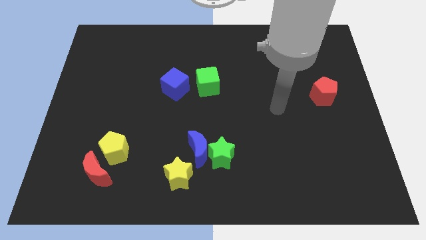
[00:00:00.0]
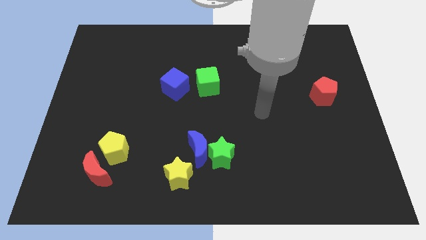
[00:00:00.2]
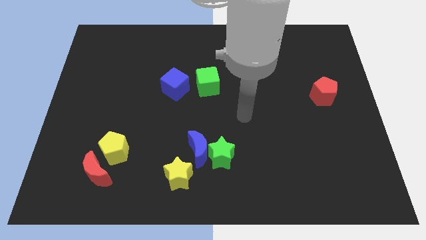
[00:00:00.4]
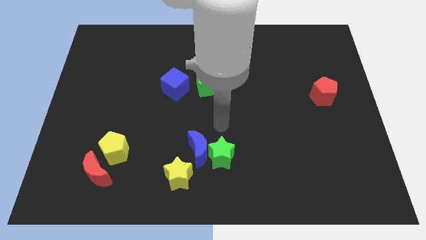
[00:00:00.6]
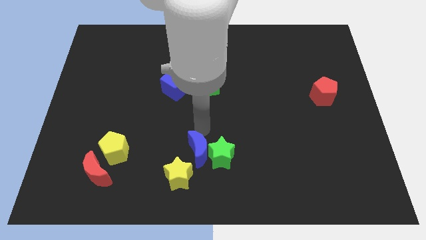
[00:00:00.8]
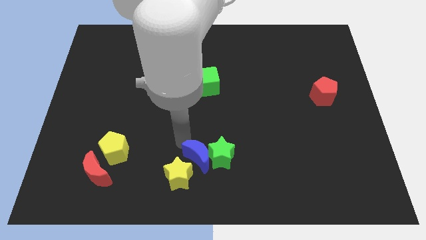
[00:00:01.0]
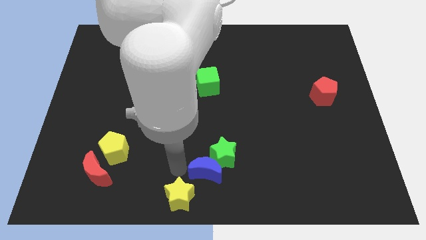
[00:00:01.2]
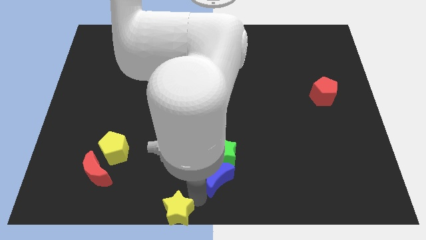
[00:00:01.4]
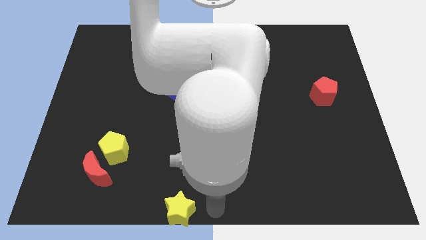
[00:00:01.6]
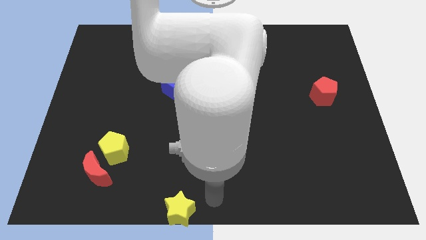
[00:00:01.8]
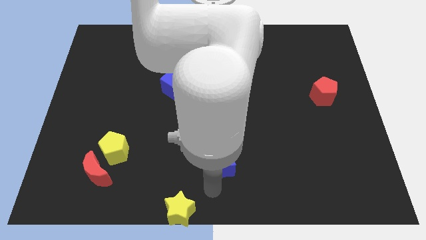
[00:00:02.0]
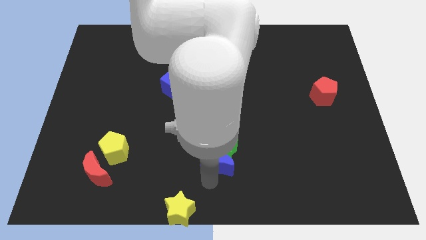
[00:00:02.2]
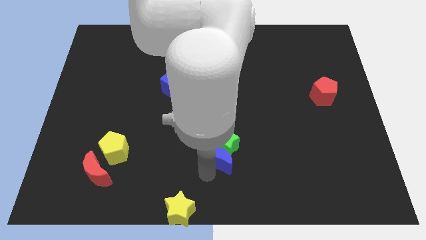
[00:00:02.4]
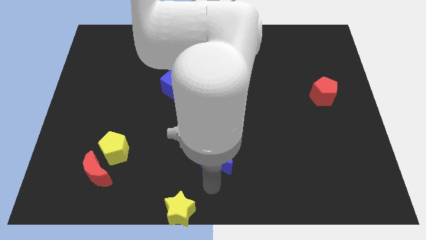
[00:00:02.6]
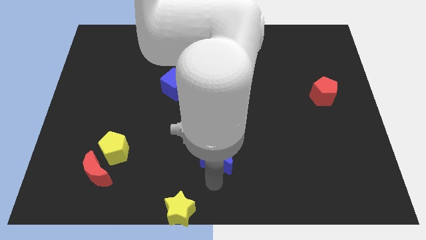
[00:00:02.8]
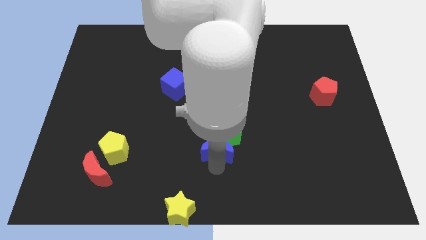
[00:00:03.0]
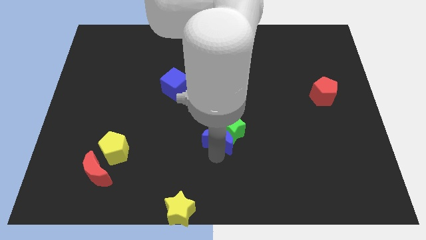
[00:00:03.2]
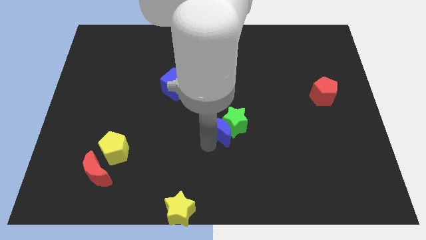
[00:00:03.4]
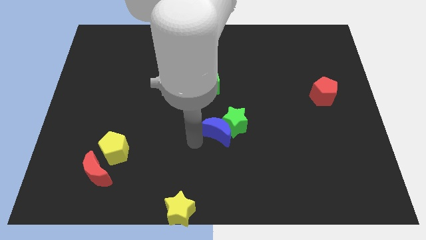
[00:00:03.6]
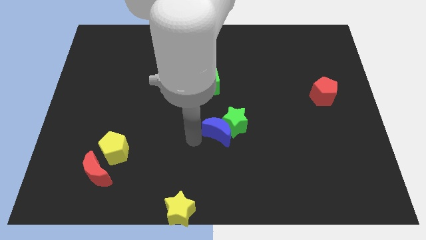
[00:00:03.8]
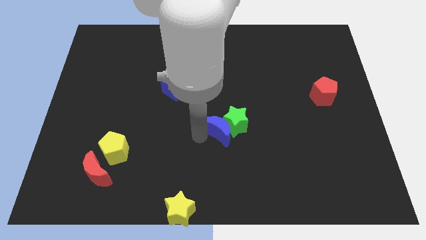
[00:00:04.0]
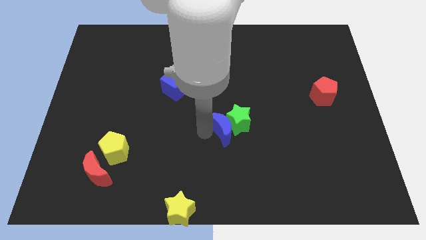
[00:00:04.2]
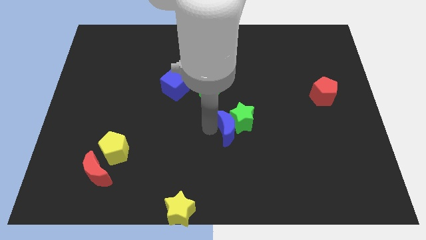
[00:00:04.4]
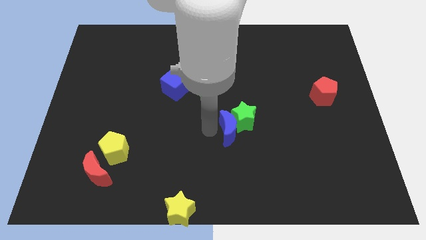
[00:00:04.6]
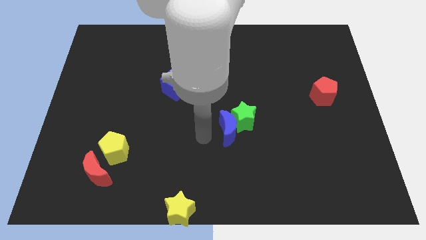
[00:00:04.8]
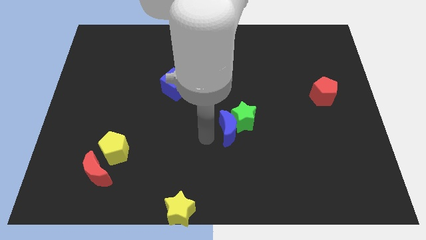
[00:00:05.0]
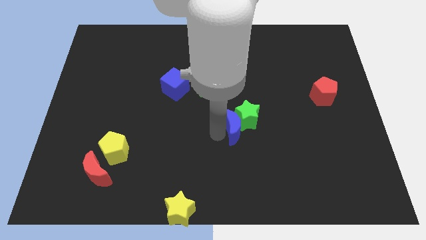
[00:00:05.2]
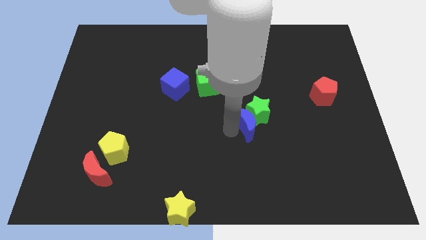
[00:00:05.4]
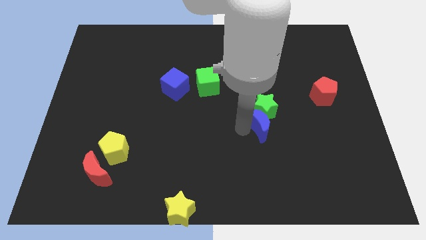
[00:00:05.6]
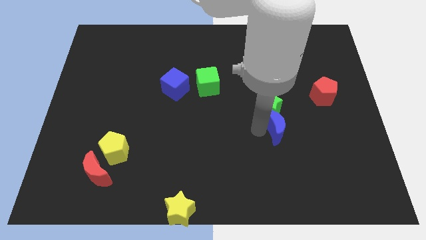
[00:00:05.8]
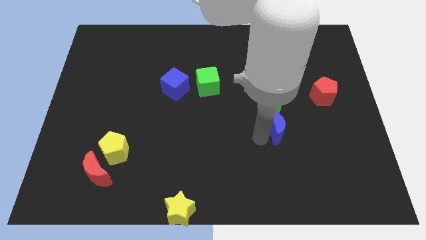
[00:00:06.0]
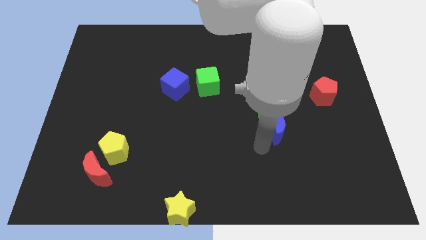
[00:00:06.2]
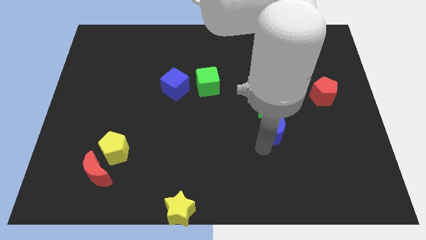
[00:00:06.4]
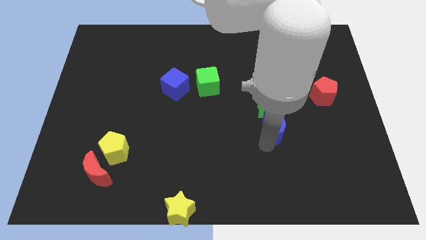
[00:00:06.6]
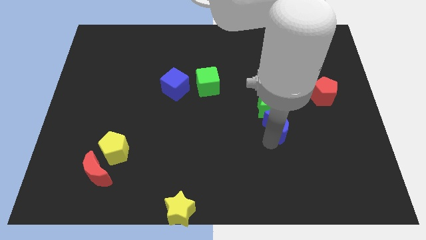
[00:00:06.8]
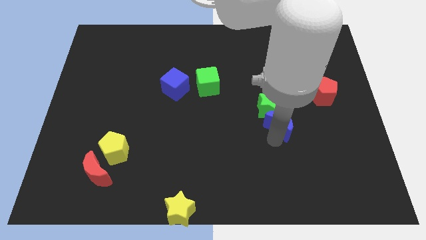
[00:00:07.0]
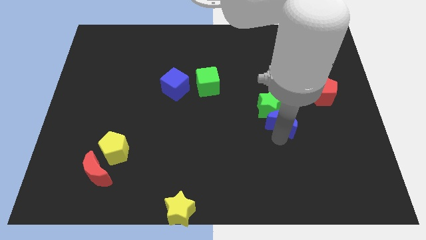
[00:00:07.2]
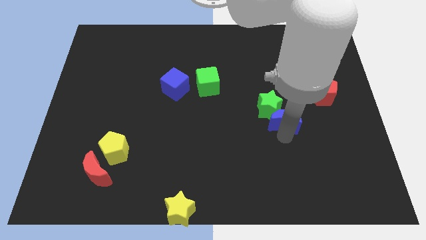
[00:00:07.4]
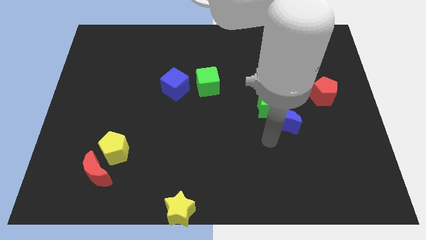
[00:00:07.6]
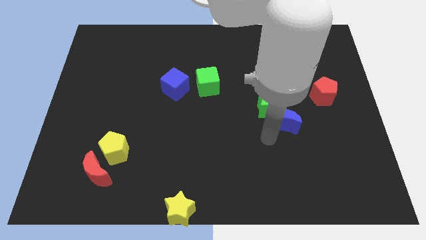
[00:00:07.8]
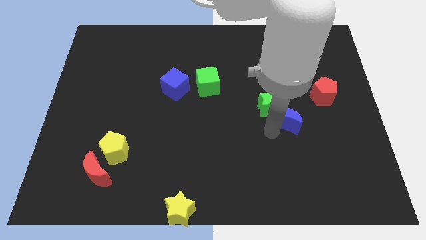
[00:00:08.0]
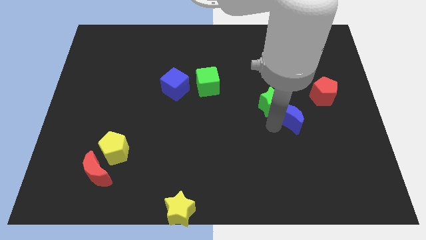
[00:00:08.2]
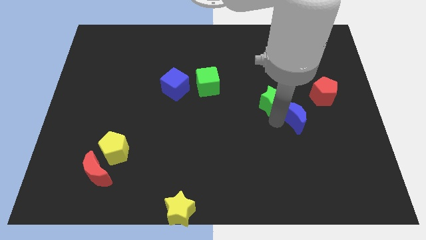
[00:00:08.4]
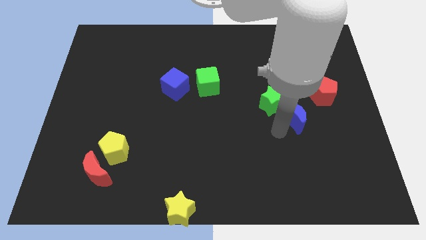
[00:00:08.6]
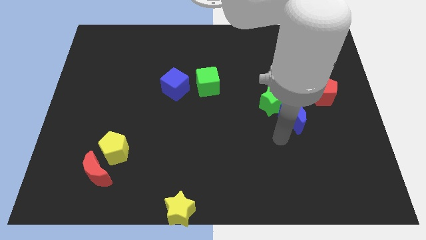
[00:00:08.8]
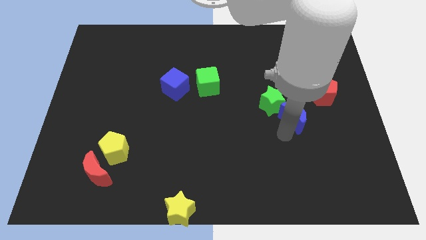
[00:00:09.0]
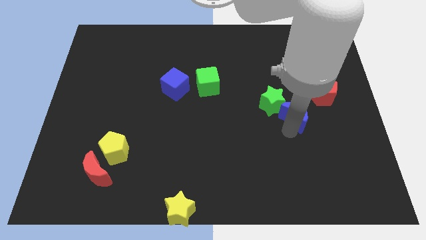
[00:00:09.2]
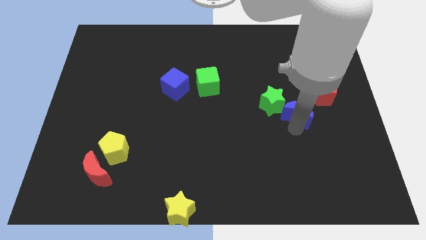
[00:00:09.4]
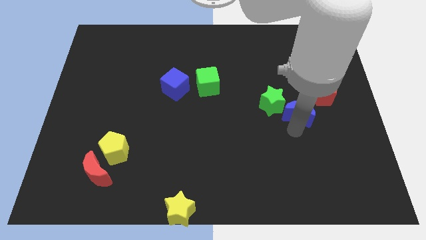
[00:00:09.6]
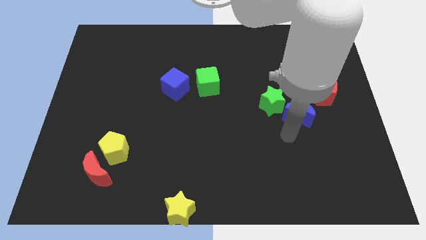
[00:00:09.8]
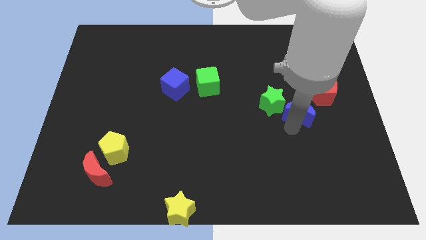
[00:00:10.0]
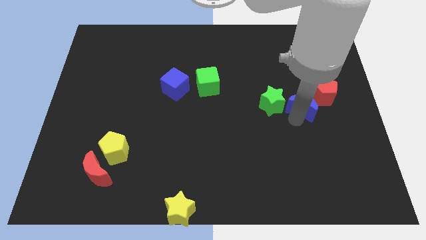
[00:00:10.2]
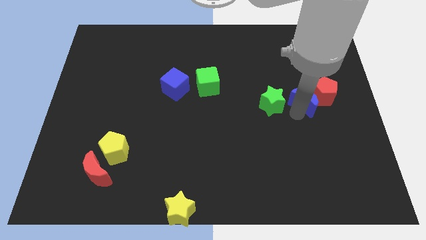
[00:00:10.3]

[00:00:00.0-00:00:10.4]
push the blue moon close to the red pentagon

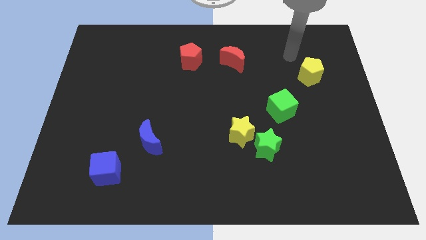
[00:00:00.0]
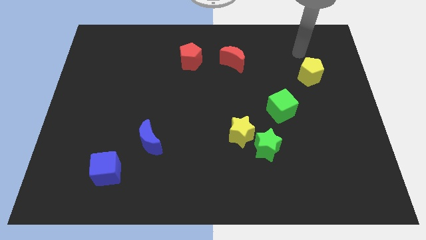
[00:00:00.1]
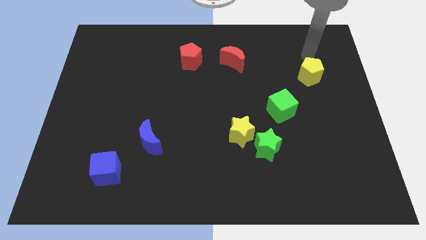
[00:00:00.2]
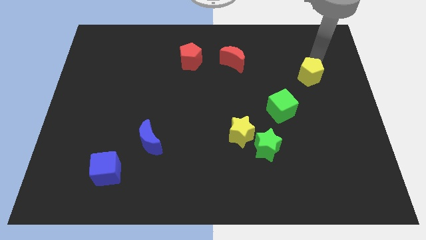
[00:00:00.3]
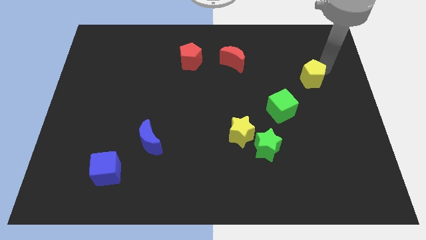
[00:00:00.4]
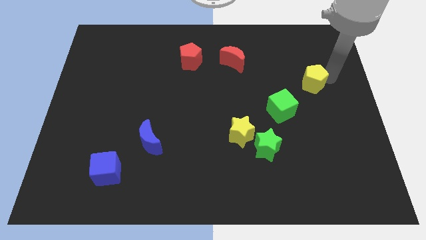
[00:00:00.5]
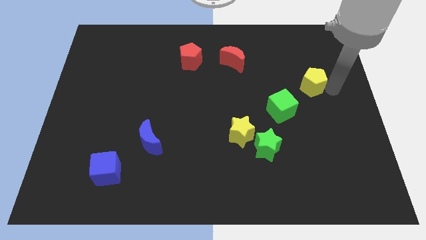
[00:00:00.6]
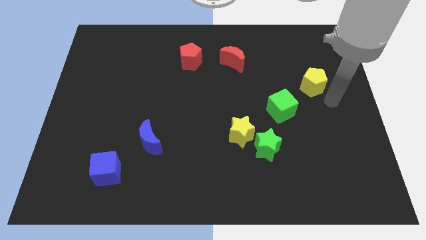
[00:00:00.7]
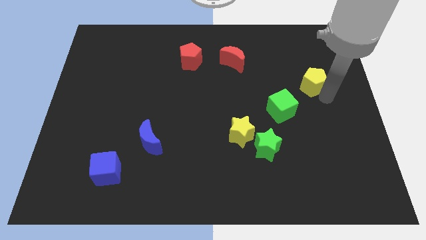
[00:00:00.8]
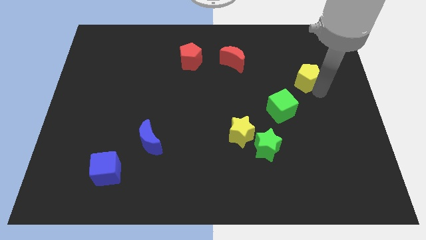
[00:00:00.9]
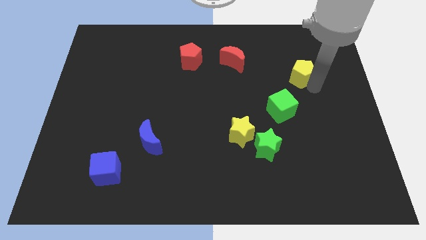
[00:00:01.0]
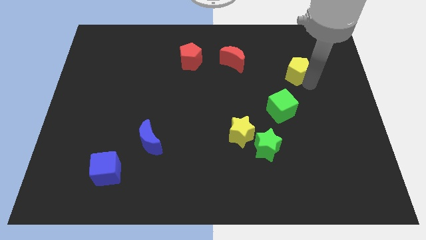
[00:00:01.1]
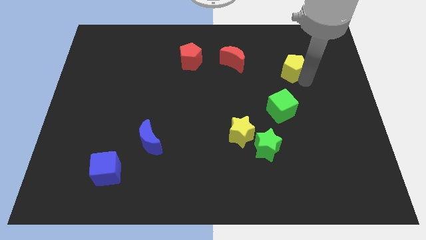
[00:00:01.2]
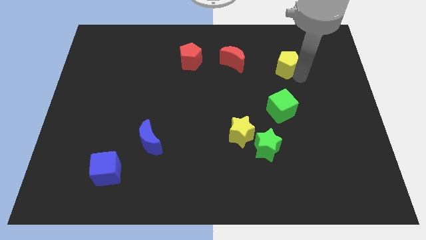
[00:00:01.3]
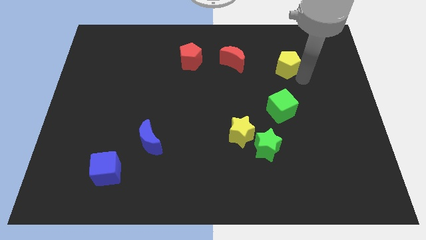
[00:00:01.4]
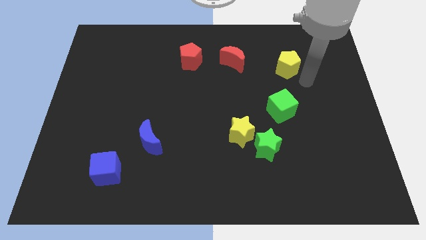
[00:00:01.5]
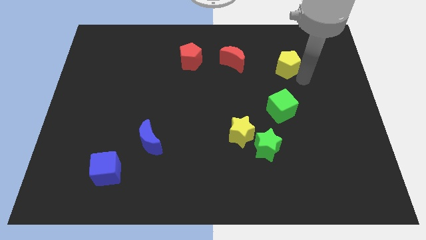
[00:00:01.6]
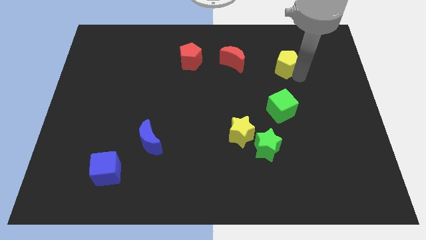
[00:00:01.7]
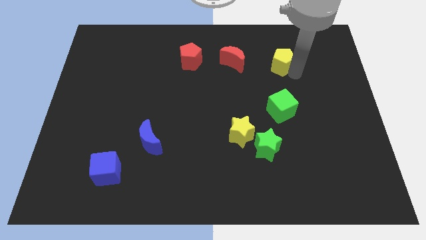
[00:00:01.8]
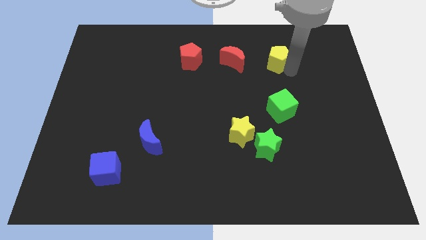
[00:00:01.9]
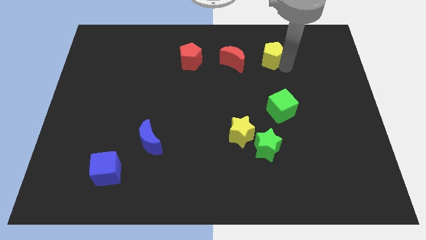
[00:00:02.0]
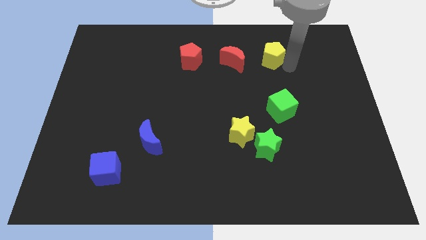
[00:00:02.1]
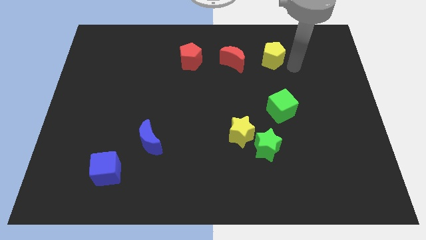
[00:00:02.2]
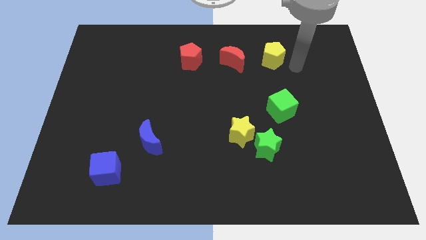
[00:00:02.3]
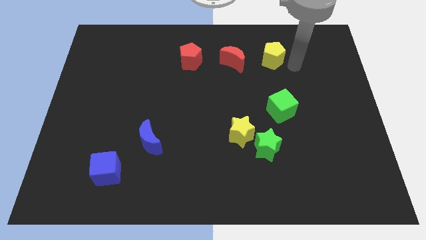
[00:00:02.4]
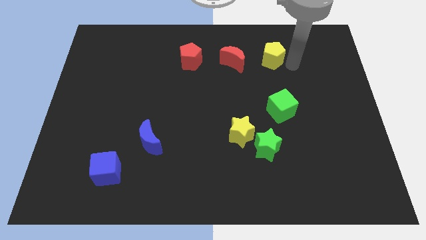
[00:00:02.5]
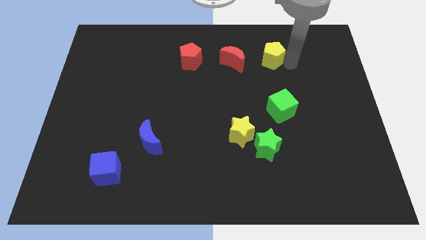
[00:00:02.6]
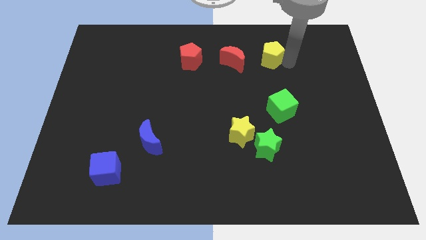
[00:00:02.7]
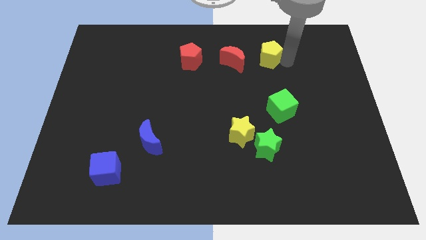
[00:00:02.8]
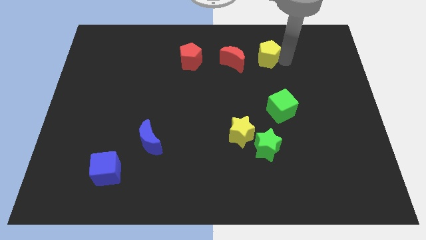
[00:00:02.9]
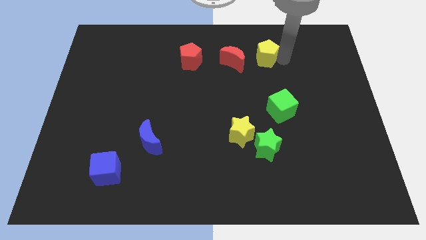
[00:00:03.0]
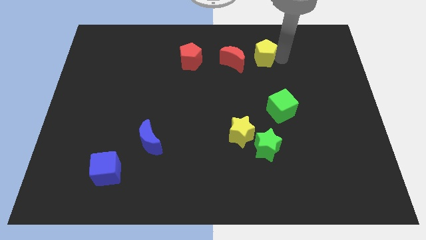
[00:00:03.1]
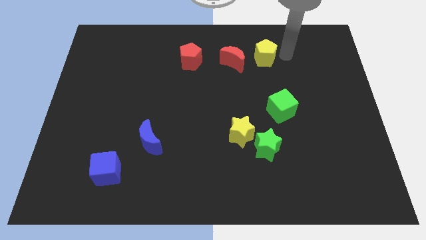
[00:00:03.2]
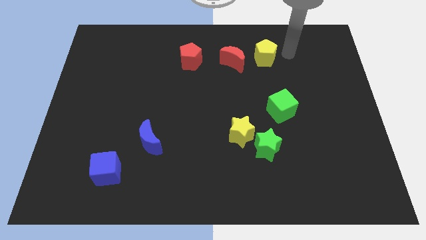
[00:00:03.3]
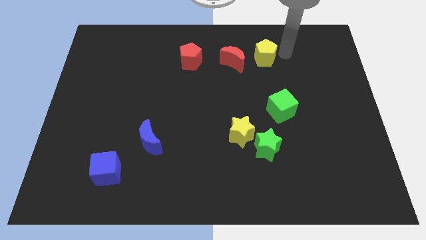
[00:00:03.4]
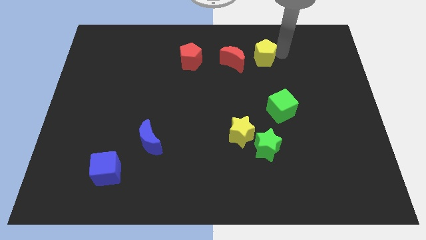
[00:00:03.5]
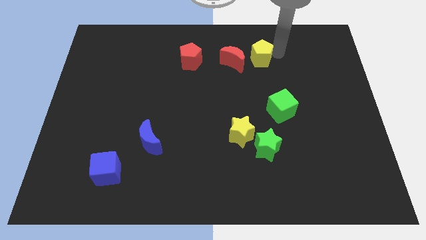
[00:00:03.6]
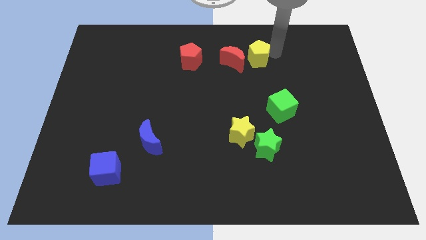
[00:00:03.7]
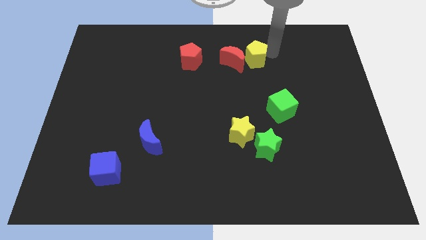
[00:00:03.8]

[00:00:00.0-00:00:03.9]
push the yellow pentagon close to the red moon
